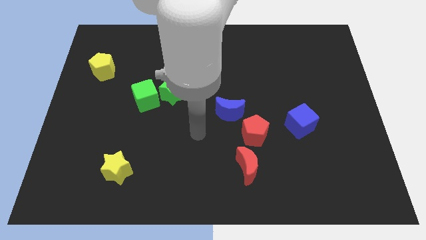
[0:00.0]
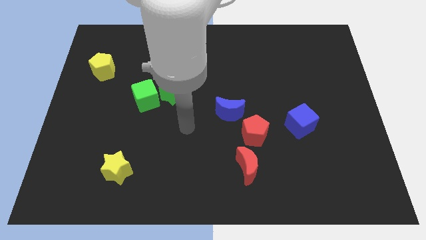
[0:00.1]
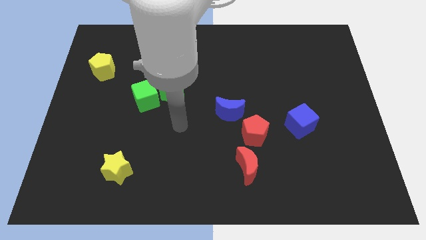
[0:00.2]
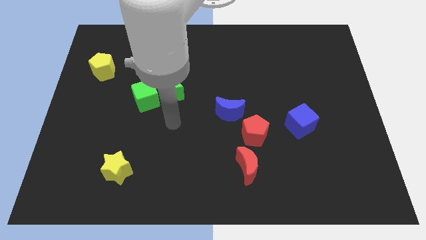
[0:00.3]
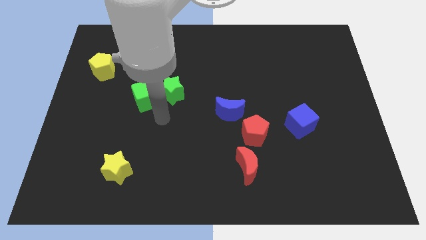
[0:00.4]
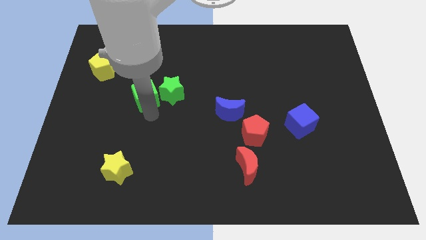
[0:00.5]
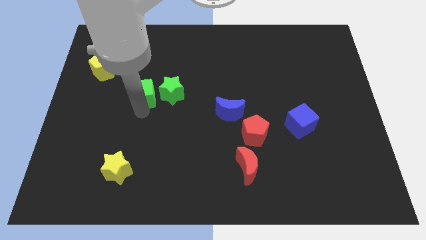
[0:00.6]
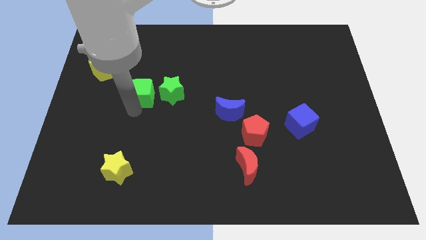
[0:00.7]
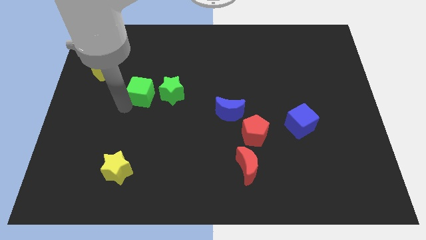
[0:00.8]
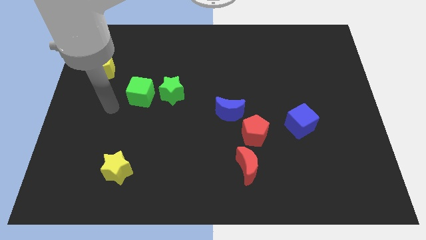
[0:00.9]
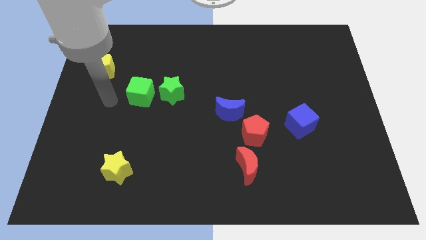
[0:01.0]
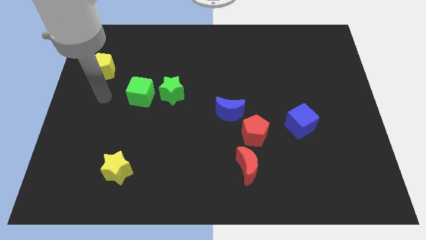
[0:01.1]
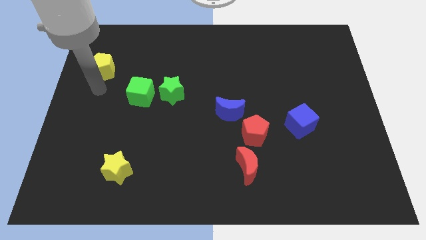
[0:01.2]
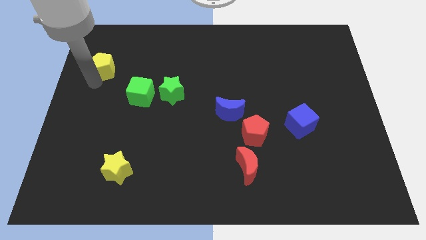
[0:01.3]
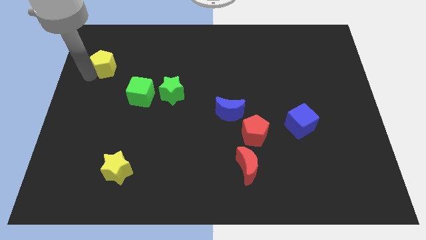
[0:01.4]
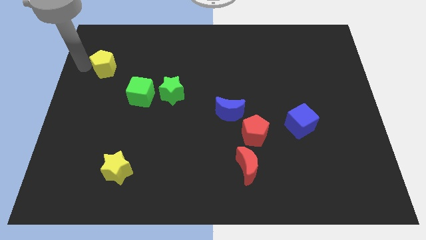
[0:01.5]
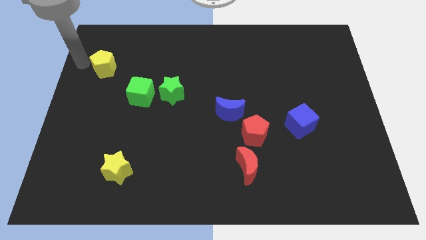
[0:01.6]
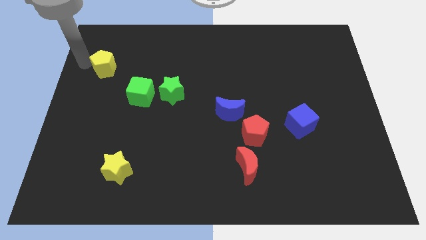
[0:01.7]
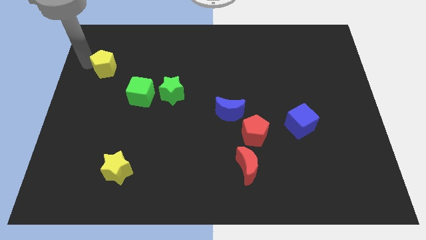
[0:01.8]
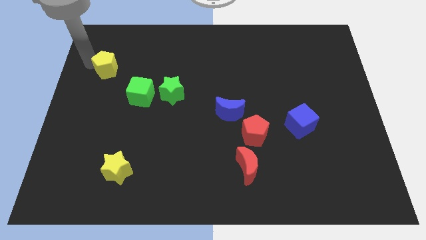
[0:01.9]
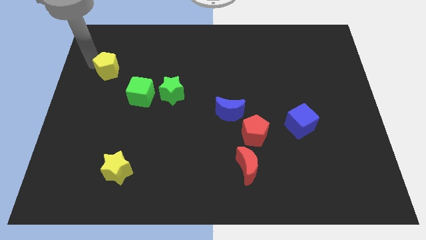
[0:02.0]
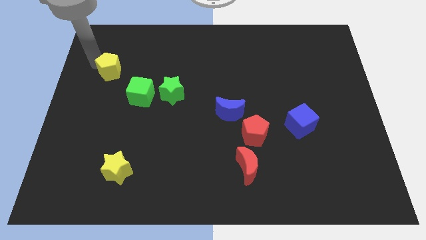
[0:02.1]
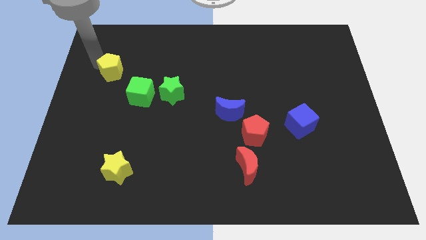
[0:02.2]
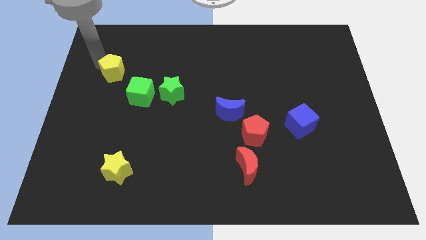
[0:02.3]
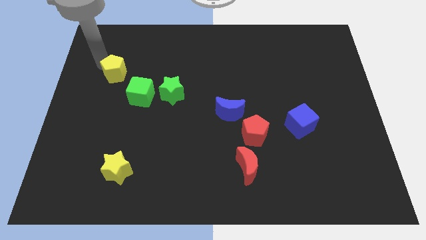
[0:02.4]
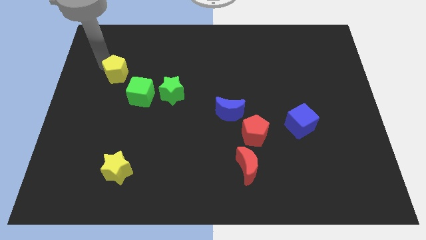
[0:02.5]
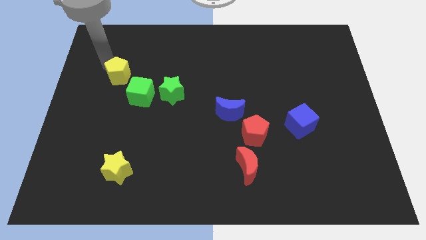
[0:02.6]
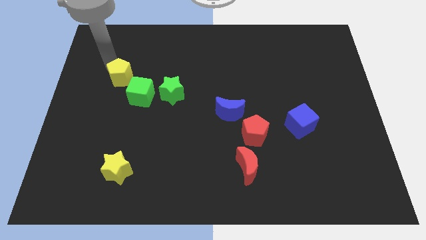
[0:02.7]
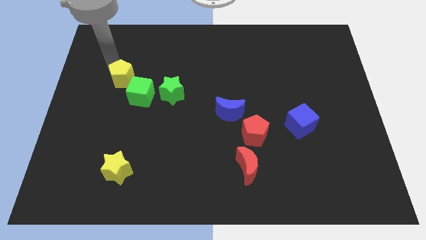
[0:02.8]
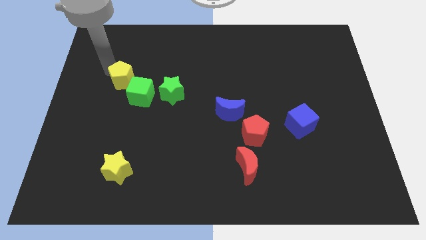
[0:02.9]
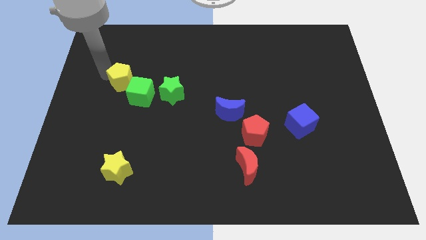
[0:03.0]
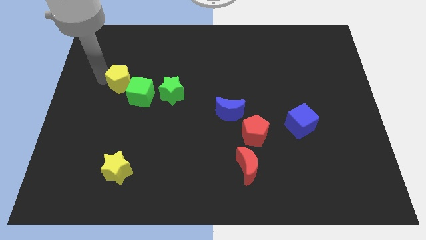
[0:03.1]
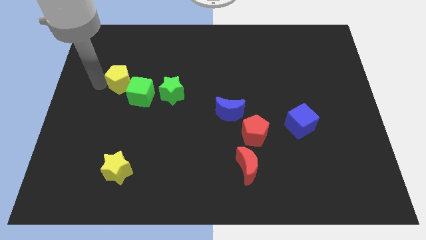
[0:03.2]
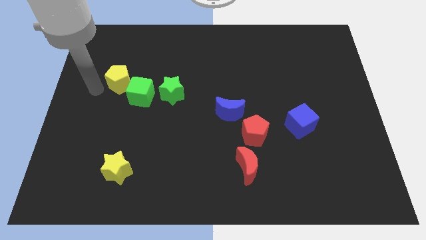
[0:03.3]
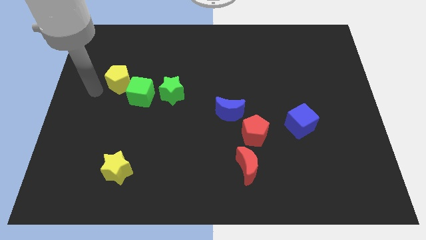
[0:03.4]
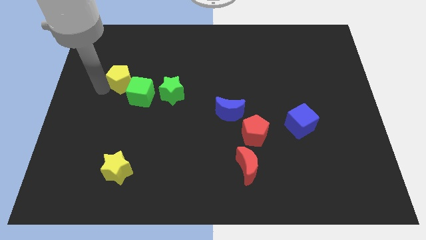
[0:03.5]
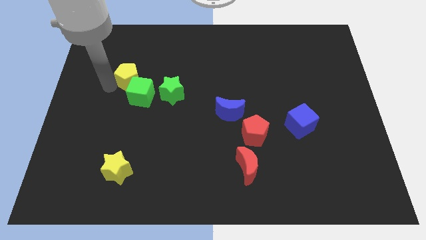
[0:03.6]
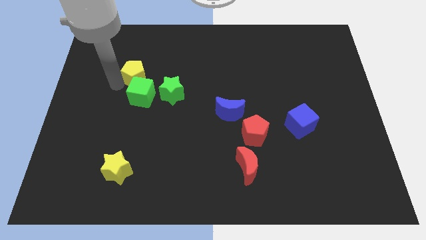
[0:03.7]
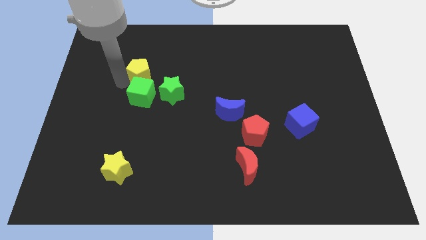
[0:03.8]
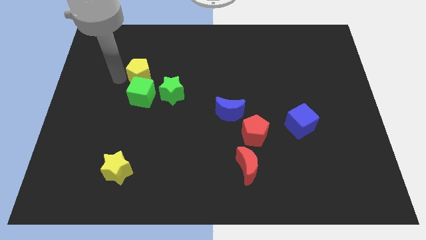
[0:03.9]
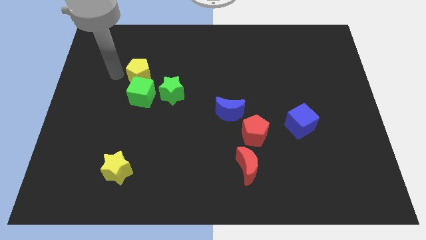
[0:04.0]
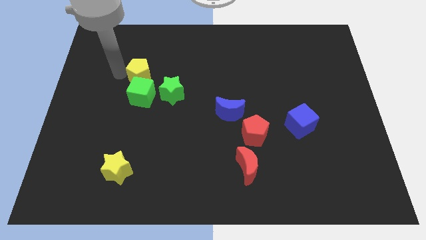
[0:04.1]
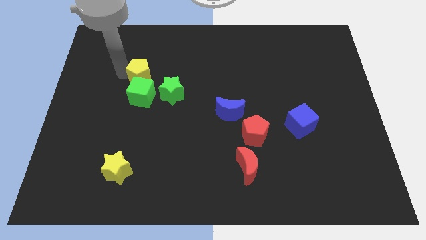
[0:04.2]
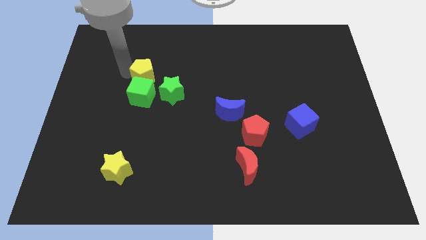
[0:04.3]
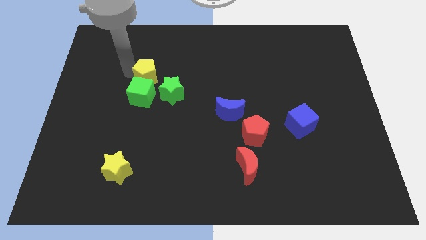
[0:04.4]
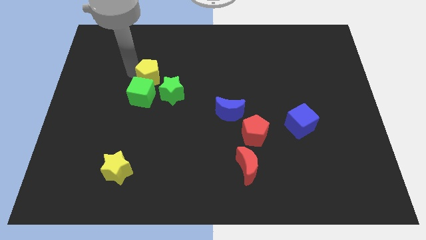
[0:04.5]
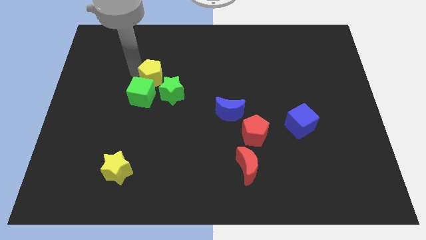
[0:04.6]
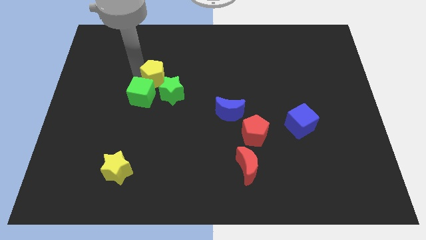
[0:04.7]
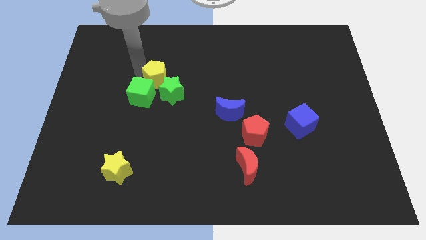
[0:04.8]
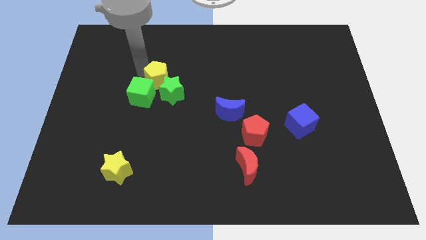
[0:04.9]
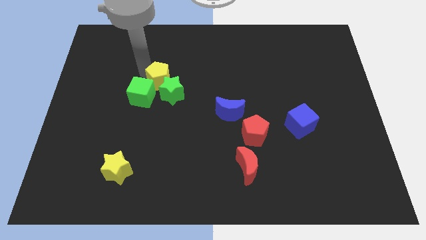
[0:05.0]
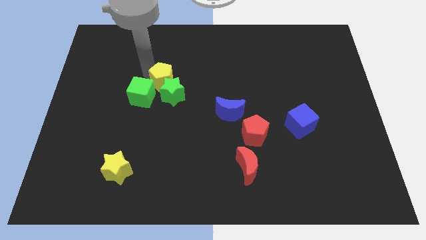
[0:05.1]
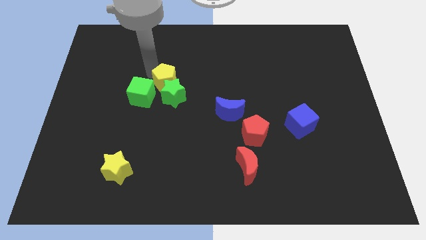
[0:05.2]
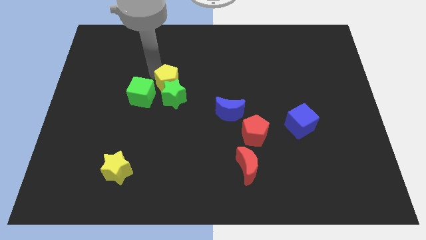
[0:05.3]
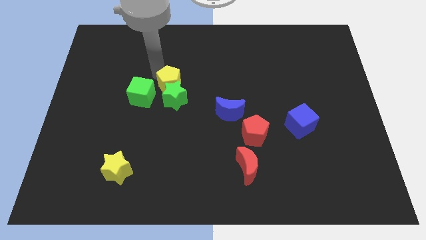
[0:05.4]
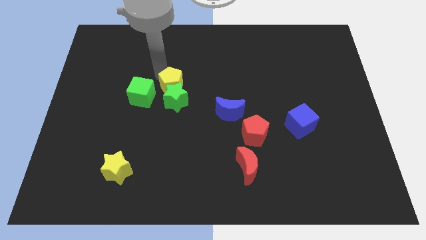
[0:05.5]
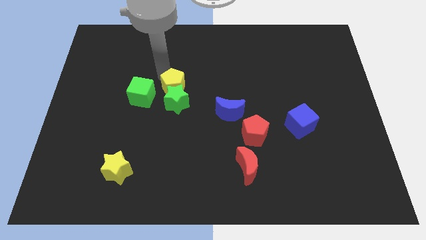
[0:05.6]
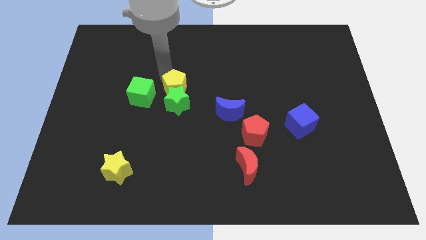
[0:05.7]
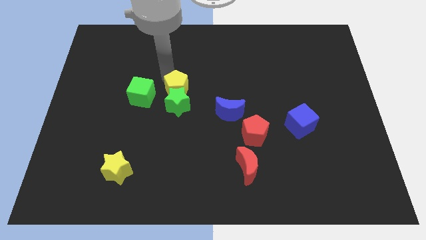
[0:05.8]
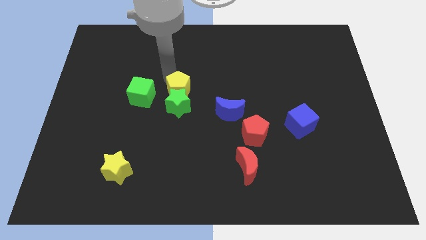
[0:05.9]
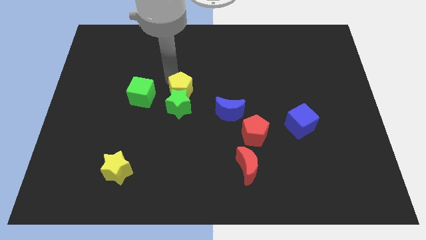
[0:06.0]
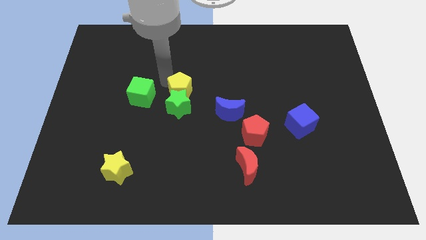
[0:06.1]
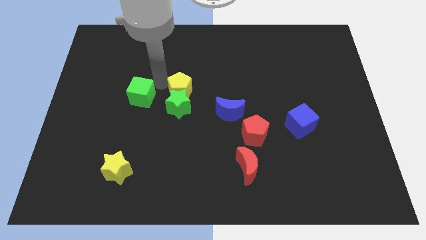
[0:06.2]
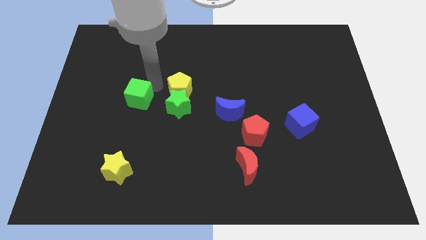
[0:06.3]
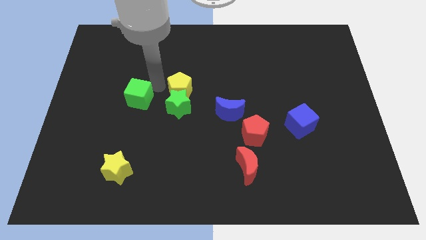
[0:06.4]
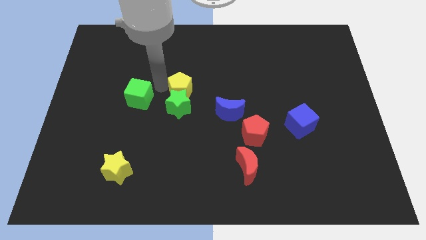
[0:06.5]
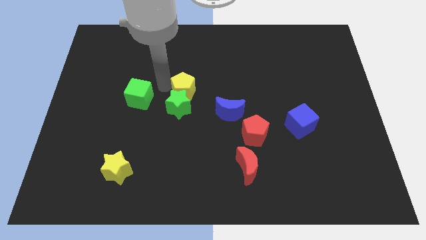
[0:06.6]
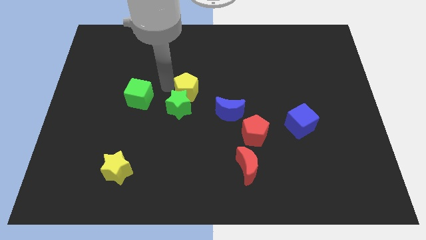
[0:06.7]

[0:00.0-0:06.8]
slide the yellow pentagon diagonally up and to the left of the blue moon
